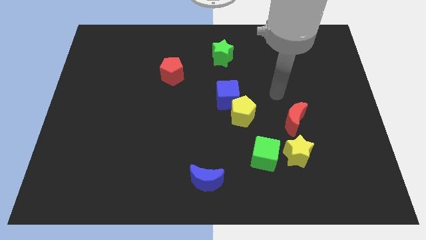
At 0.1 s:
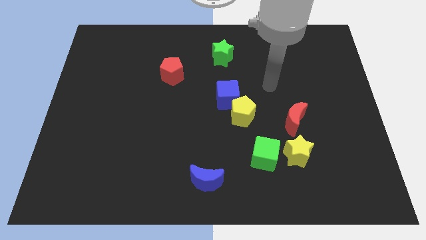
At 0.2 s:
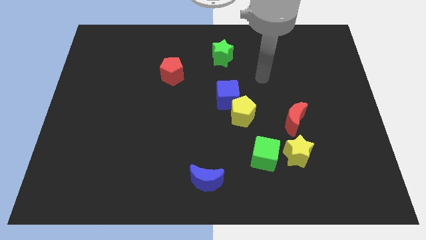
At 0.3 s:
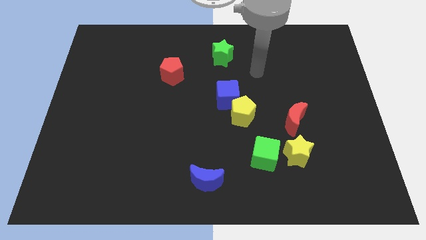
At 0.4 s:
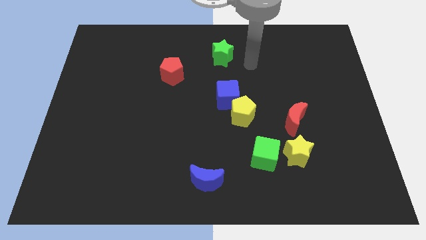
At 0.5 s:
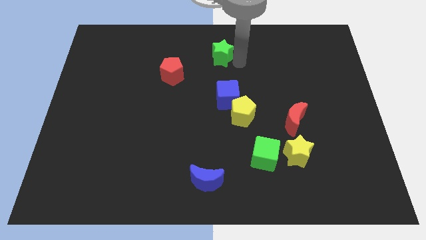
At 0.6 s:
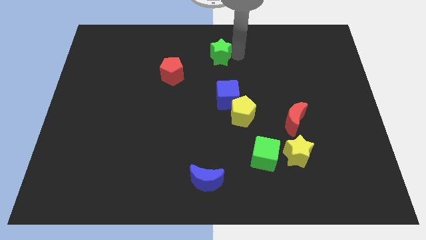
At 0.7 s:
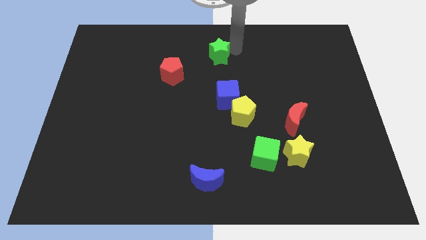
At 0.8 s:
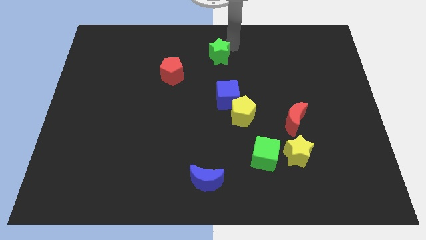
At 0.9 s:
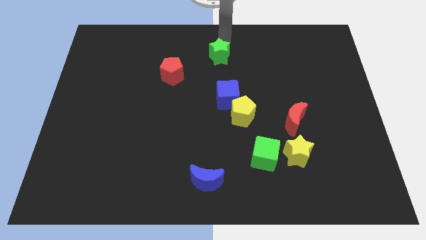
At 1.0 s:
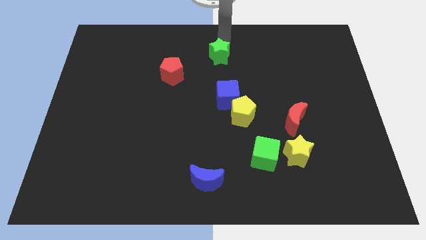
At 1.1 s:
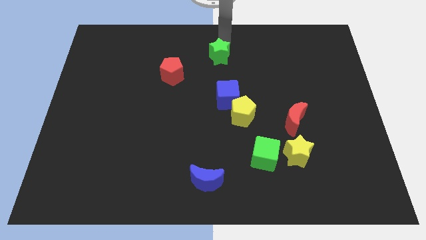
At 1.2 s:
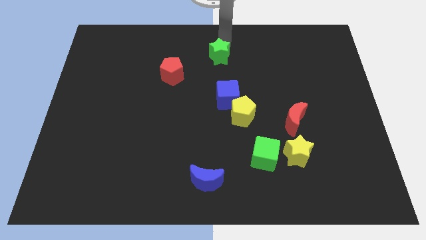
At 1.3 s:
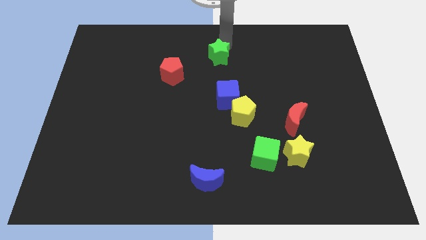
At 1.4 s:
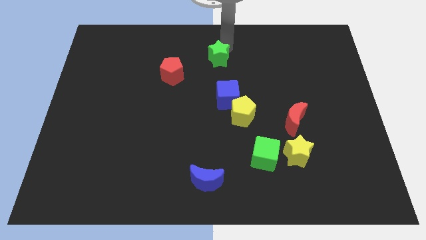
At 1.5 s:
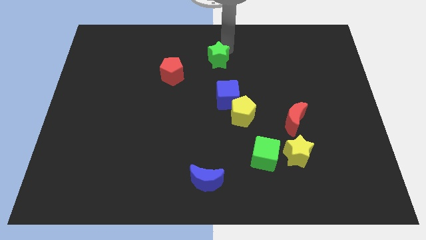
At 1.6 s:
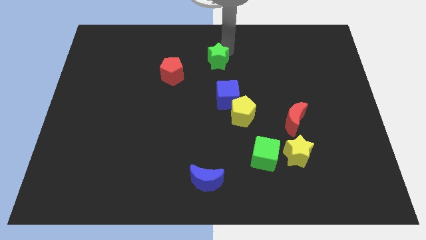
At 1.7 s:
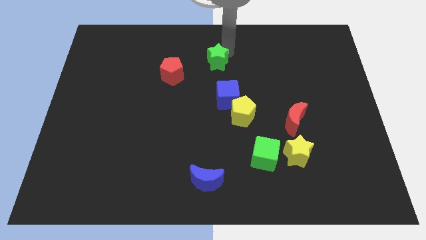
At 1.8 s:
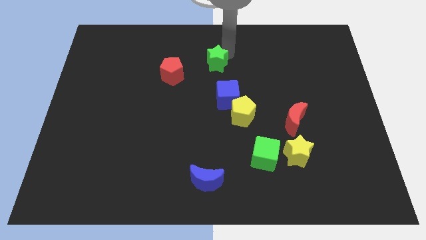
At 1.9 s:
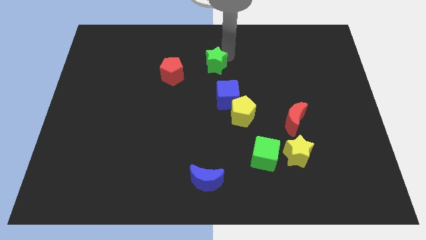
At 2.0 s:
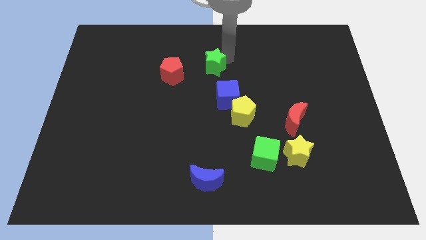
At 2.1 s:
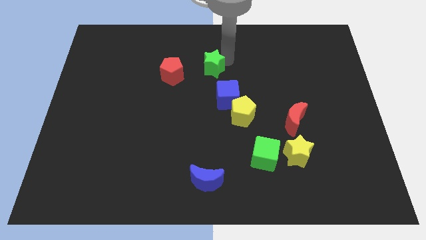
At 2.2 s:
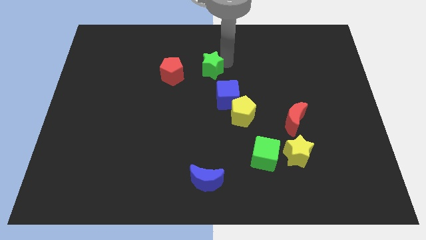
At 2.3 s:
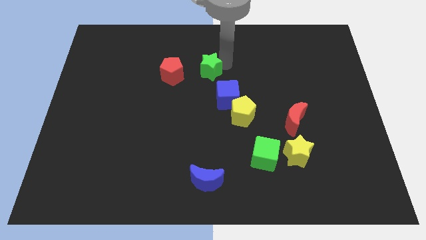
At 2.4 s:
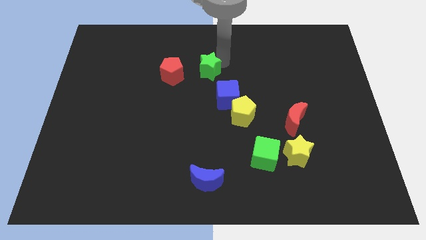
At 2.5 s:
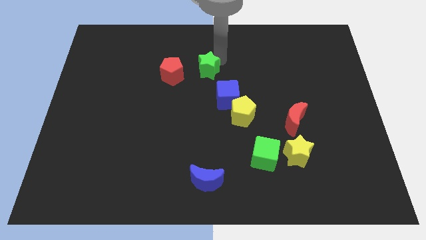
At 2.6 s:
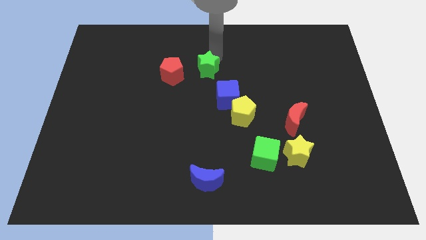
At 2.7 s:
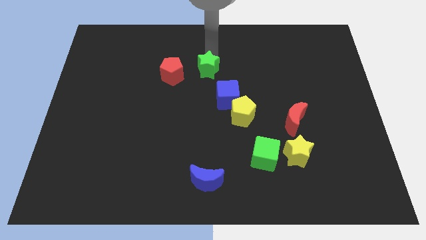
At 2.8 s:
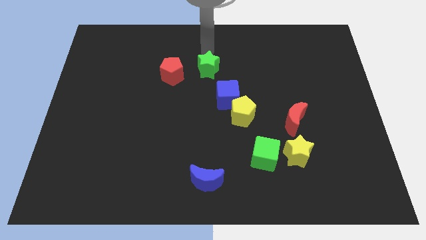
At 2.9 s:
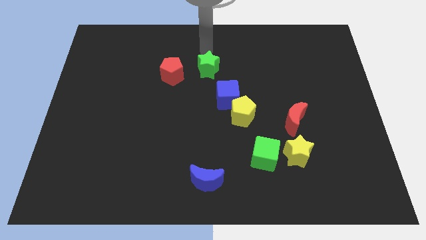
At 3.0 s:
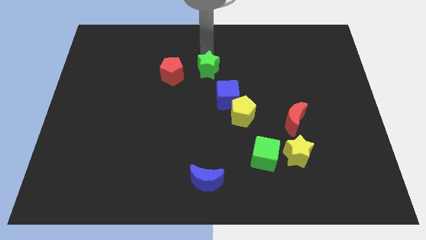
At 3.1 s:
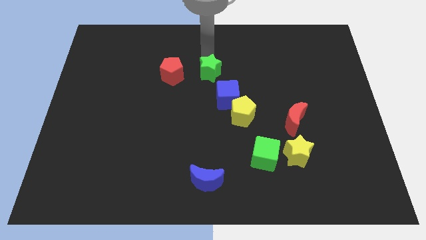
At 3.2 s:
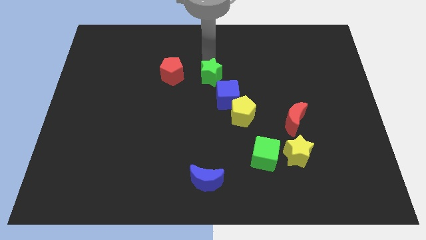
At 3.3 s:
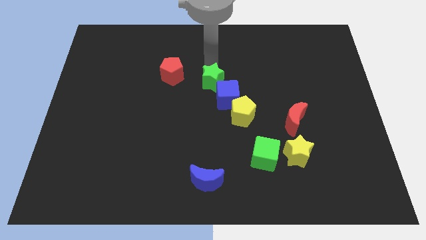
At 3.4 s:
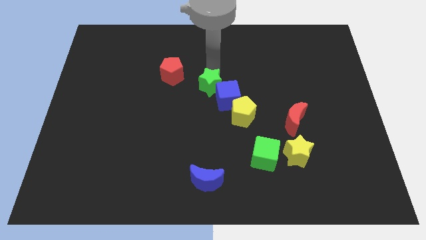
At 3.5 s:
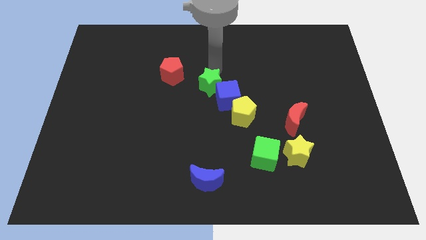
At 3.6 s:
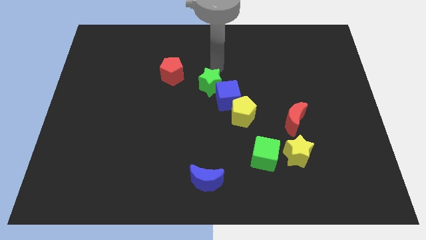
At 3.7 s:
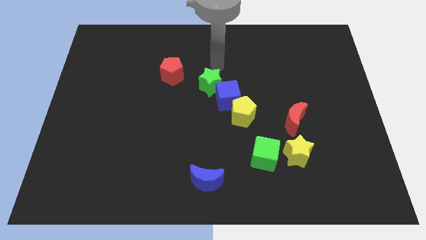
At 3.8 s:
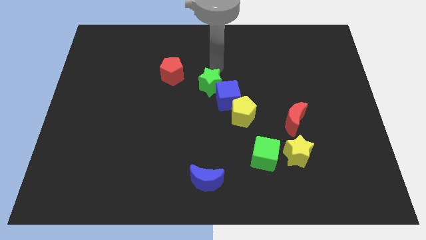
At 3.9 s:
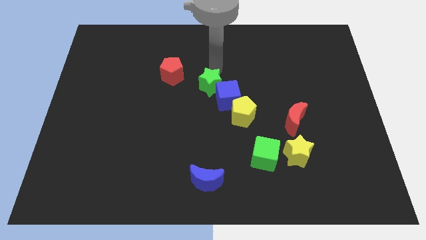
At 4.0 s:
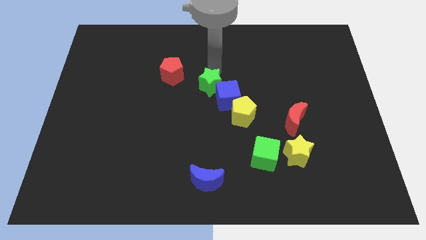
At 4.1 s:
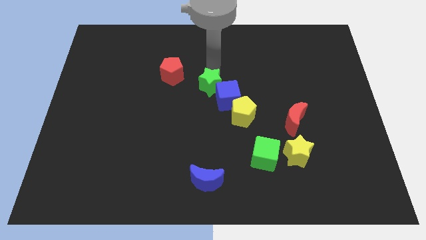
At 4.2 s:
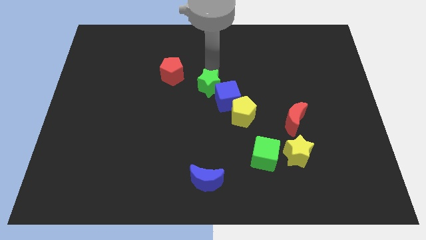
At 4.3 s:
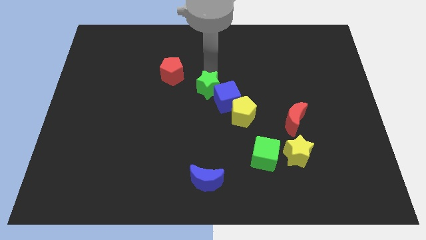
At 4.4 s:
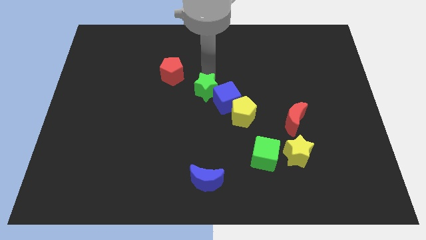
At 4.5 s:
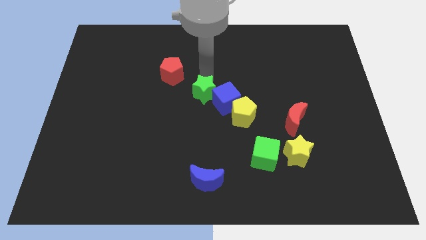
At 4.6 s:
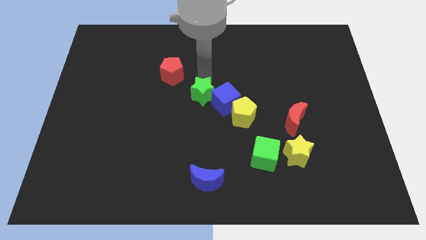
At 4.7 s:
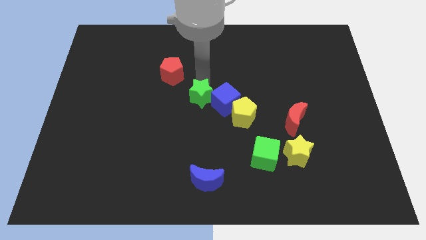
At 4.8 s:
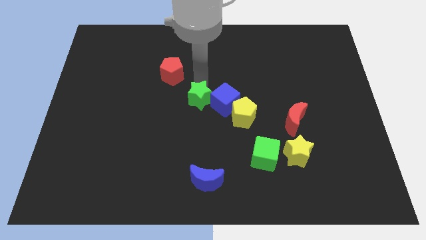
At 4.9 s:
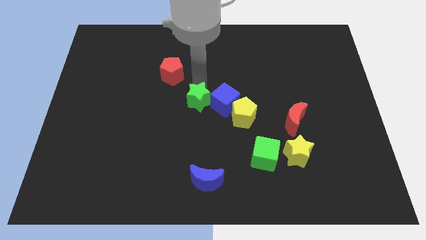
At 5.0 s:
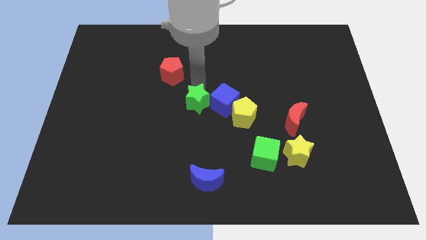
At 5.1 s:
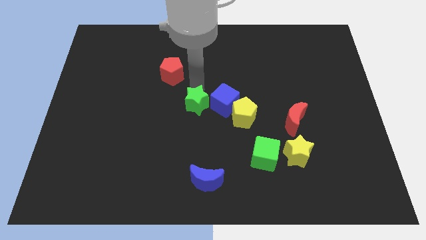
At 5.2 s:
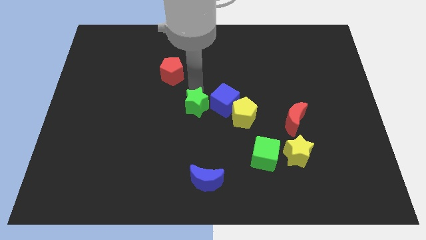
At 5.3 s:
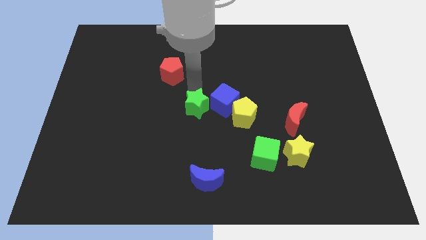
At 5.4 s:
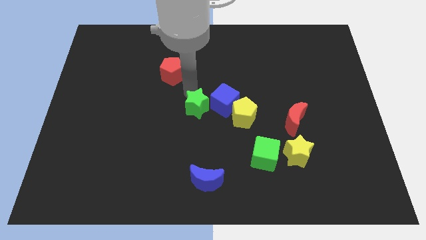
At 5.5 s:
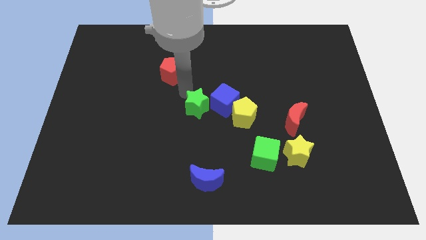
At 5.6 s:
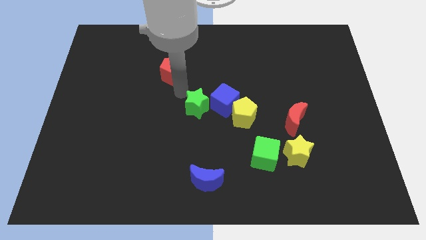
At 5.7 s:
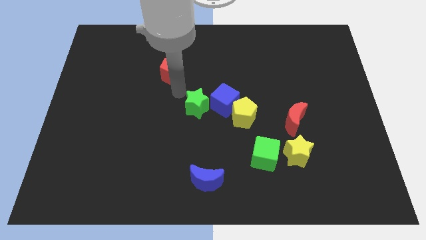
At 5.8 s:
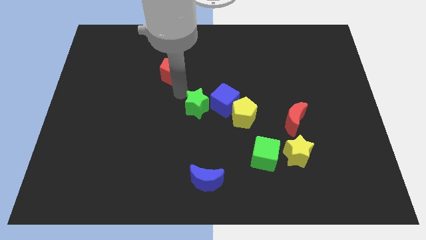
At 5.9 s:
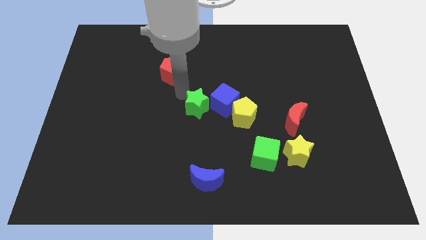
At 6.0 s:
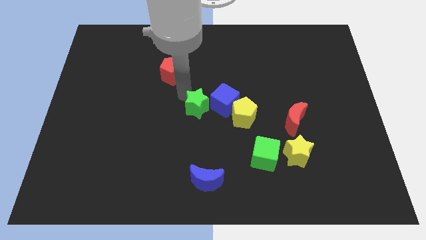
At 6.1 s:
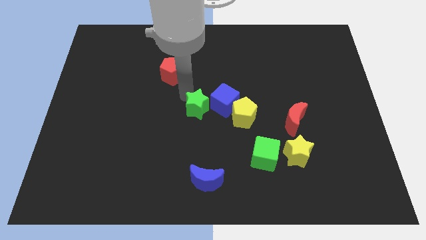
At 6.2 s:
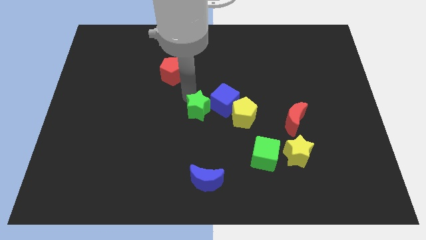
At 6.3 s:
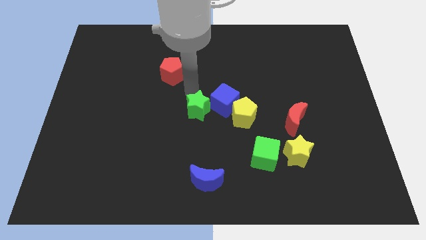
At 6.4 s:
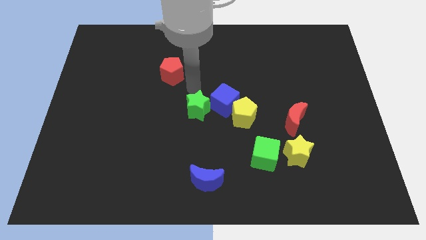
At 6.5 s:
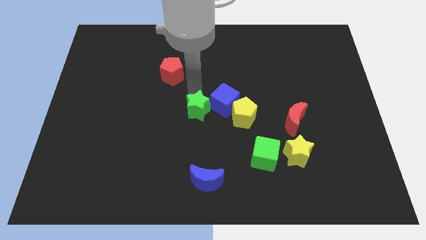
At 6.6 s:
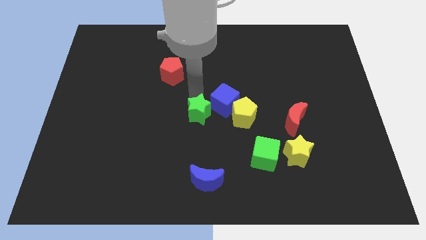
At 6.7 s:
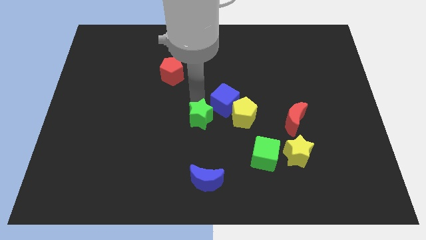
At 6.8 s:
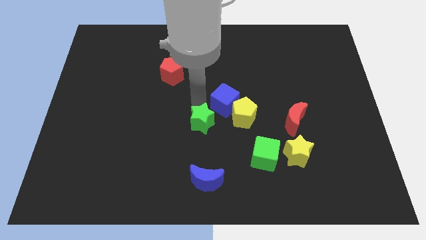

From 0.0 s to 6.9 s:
put the green star below the blue cube
